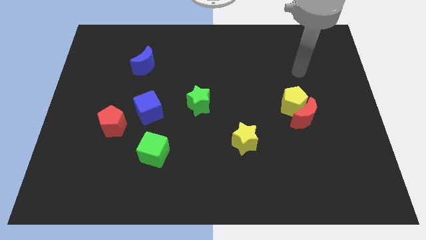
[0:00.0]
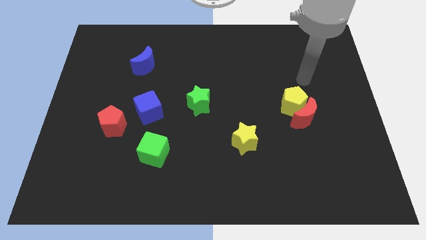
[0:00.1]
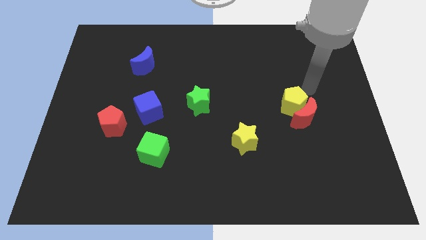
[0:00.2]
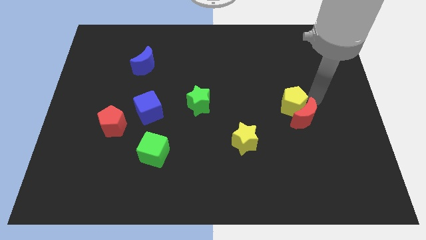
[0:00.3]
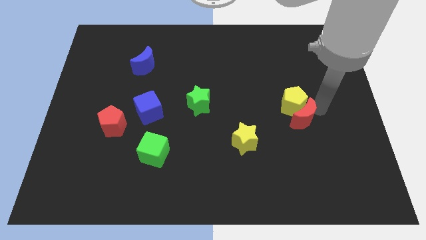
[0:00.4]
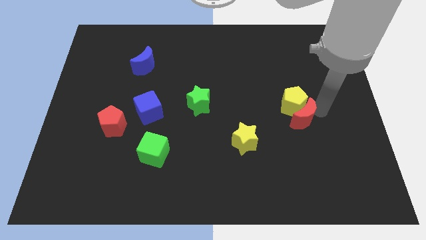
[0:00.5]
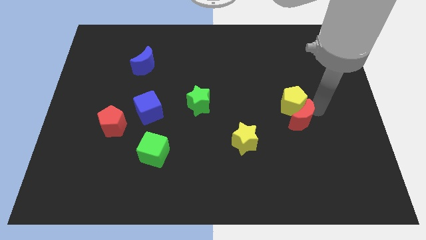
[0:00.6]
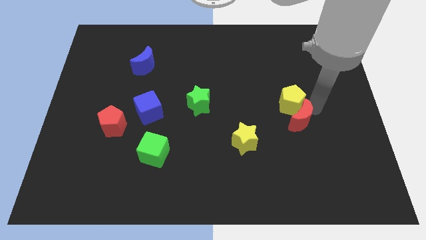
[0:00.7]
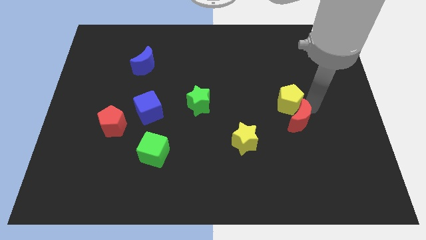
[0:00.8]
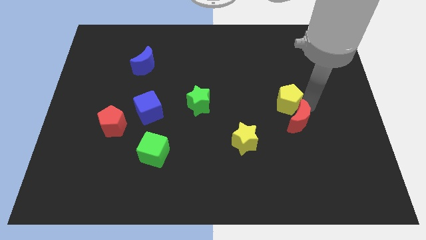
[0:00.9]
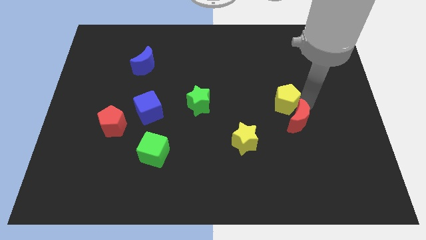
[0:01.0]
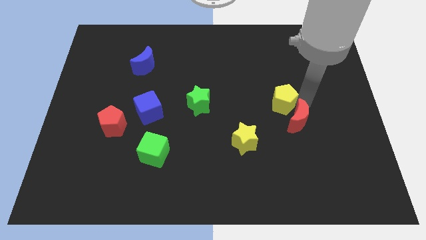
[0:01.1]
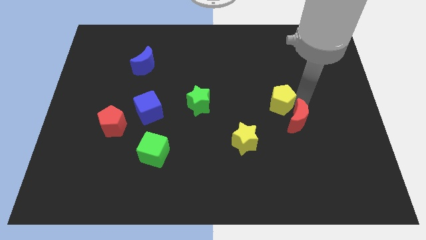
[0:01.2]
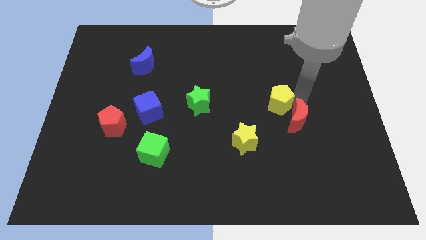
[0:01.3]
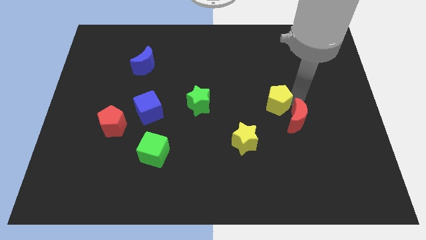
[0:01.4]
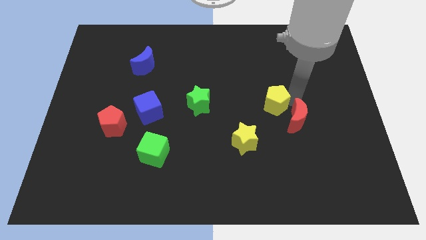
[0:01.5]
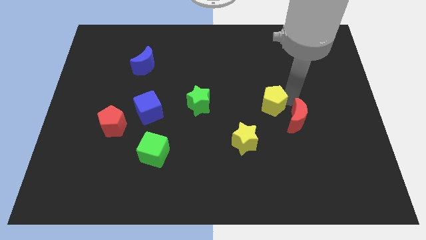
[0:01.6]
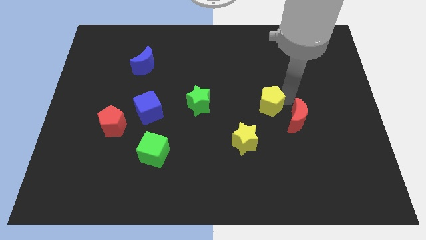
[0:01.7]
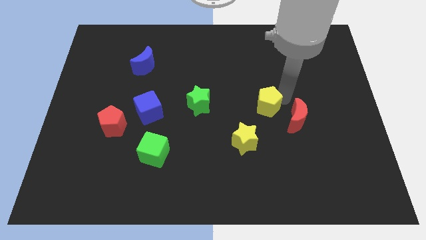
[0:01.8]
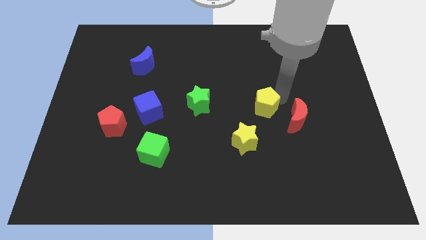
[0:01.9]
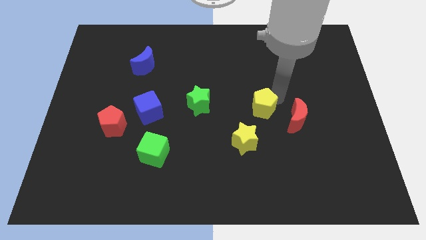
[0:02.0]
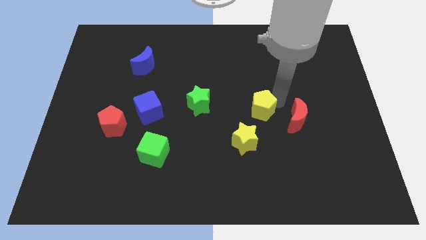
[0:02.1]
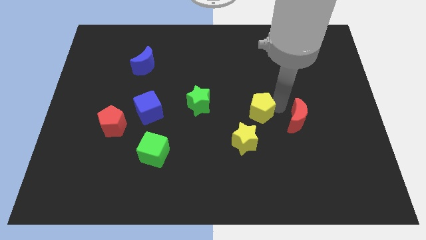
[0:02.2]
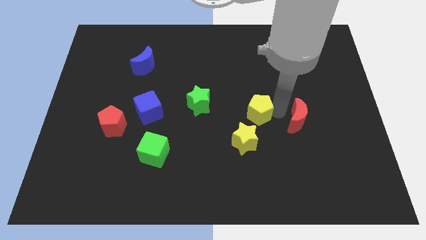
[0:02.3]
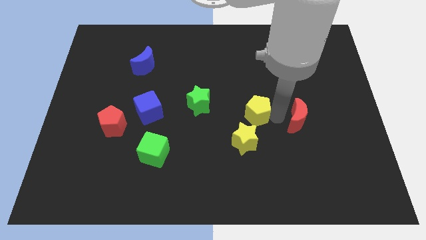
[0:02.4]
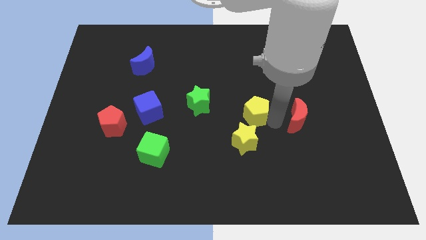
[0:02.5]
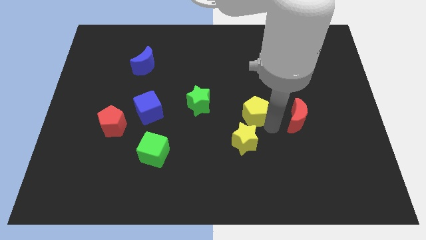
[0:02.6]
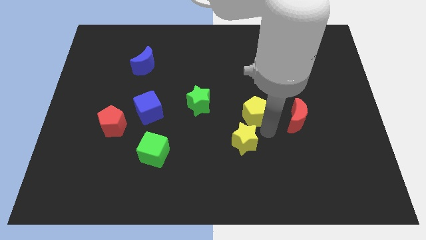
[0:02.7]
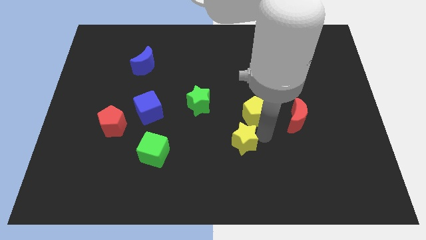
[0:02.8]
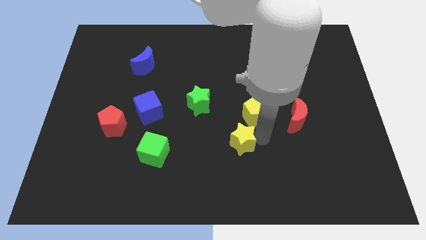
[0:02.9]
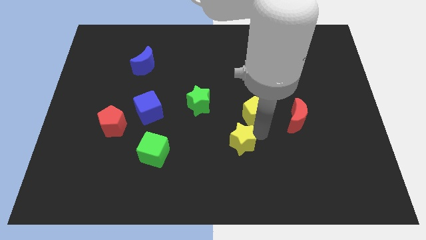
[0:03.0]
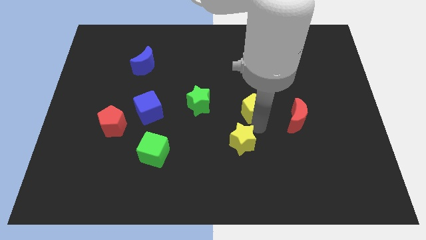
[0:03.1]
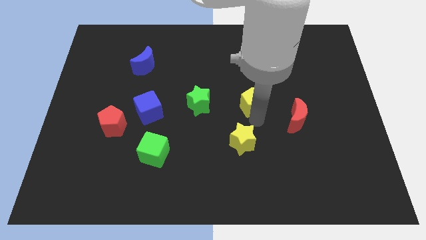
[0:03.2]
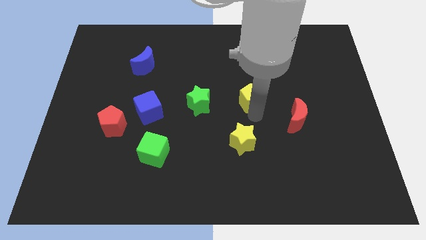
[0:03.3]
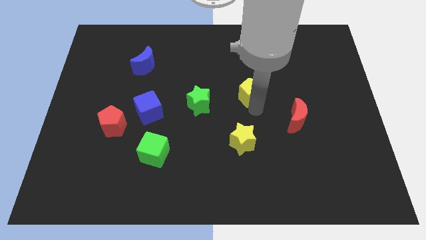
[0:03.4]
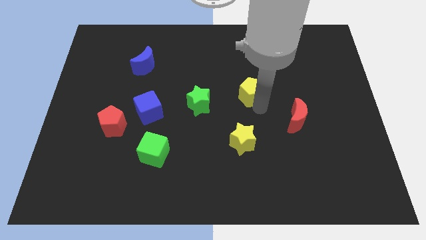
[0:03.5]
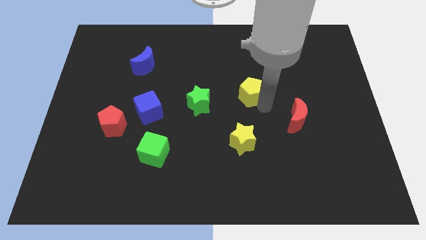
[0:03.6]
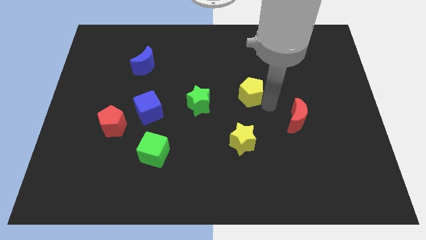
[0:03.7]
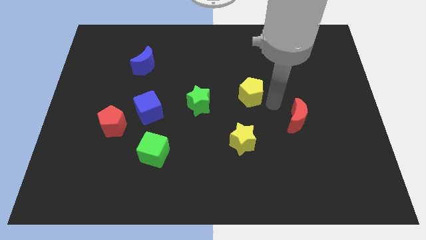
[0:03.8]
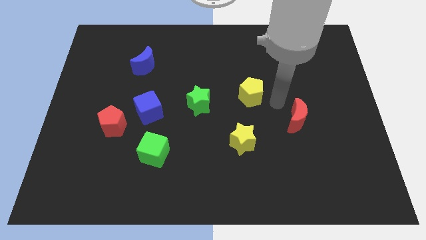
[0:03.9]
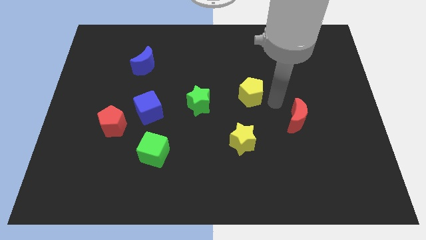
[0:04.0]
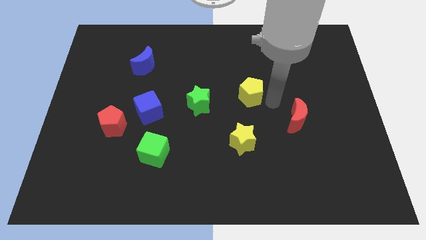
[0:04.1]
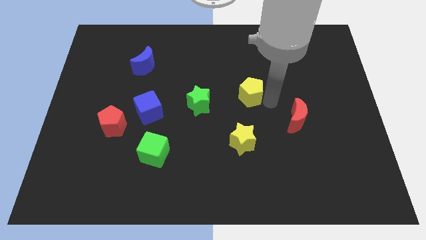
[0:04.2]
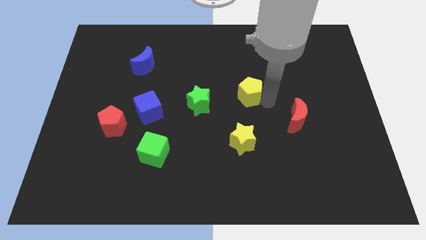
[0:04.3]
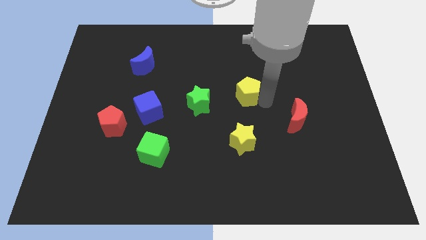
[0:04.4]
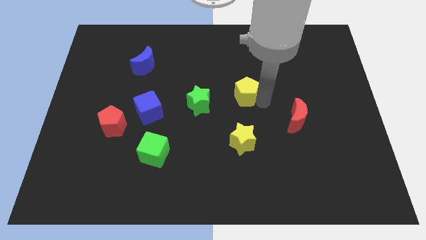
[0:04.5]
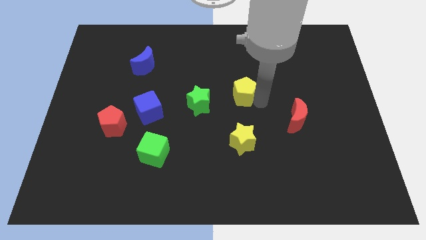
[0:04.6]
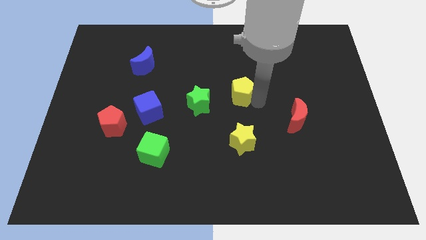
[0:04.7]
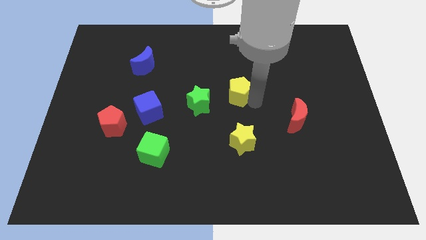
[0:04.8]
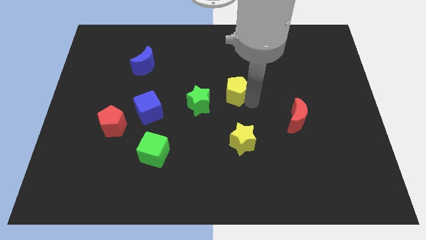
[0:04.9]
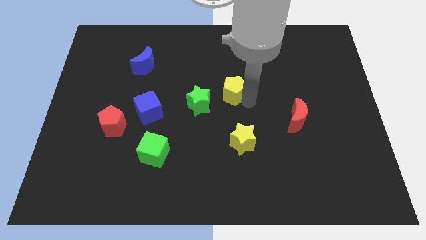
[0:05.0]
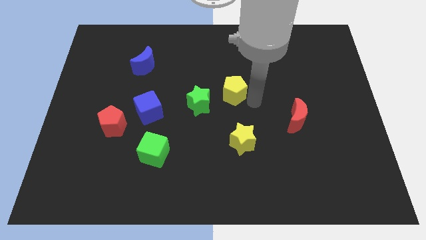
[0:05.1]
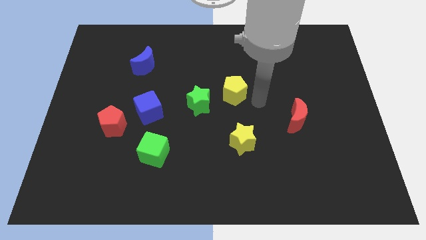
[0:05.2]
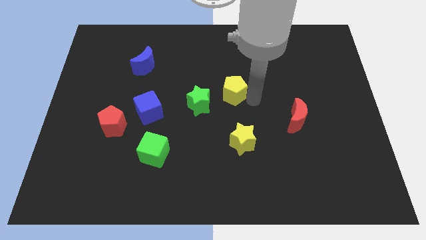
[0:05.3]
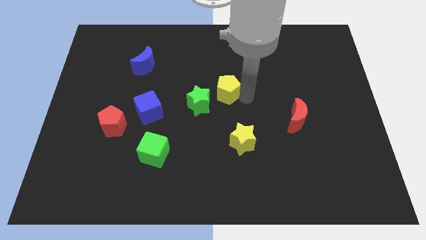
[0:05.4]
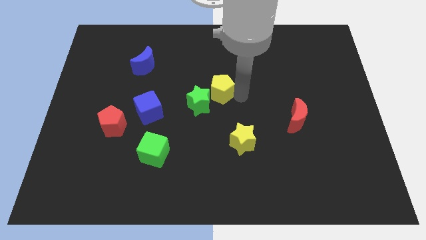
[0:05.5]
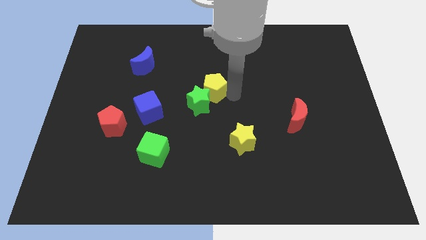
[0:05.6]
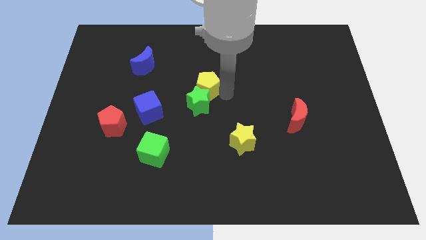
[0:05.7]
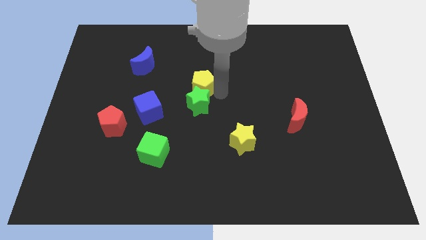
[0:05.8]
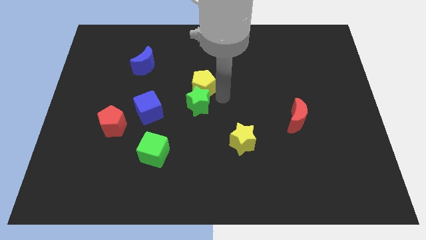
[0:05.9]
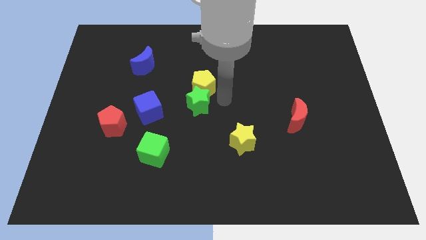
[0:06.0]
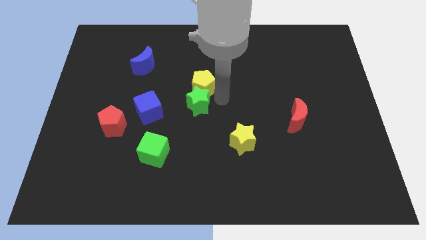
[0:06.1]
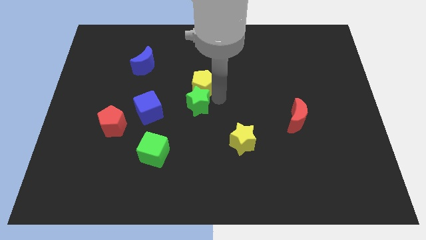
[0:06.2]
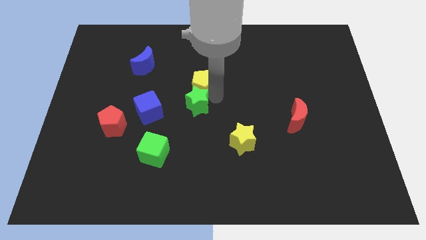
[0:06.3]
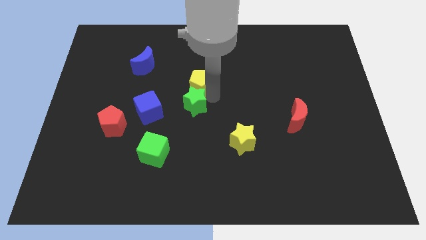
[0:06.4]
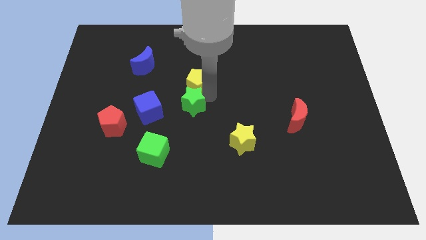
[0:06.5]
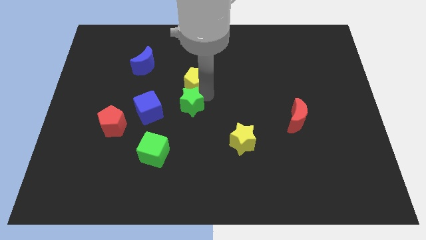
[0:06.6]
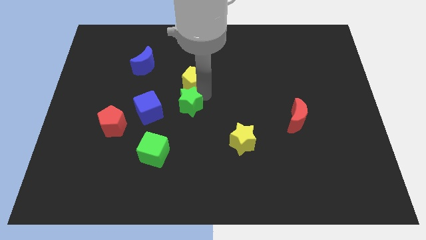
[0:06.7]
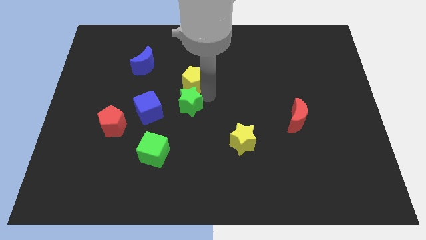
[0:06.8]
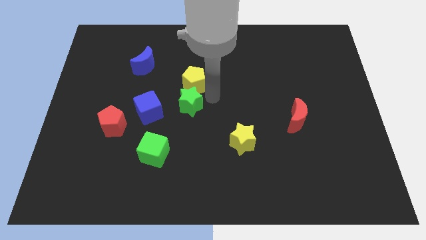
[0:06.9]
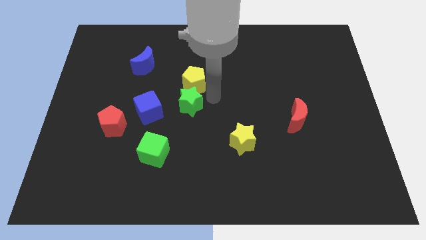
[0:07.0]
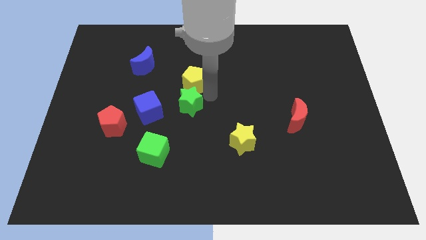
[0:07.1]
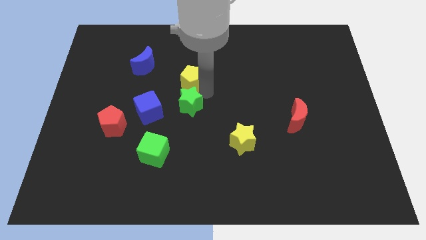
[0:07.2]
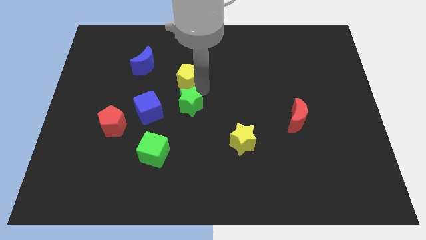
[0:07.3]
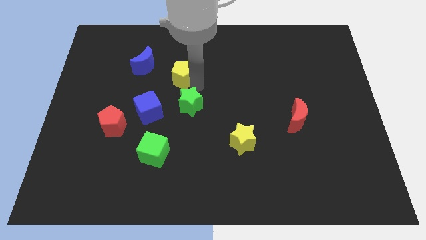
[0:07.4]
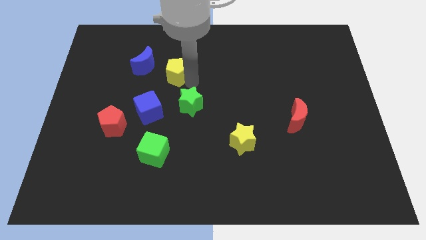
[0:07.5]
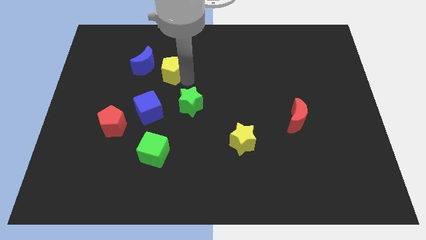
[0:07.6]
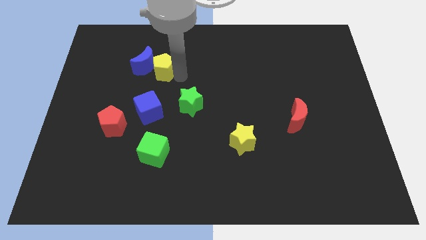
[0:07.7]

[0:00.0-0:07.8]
push the yellow pentagon towards the blue moon
